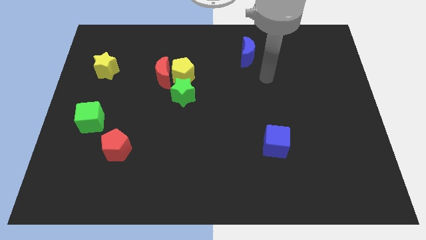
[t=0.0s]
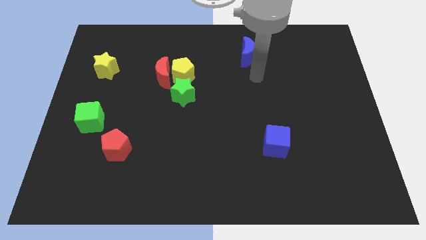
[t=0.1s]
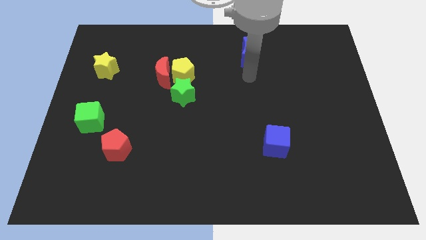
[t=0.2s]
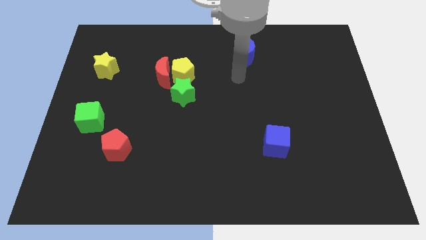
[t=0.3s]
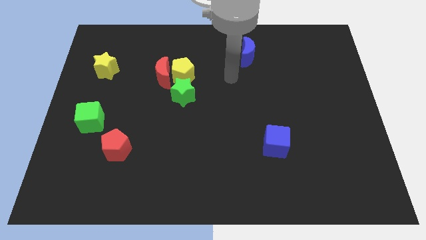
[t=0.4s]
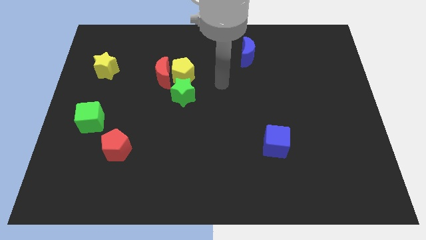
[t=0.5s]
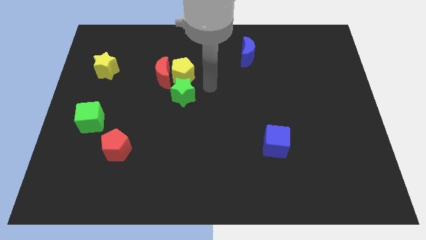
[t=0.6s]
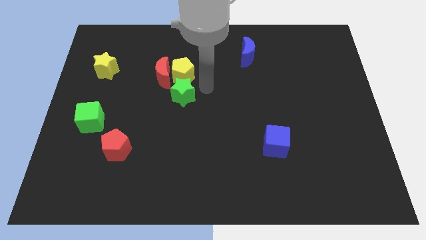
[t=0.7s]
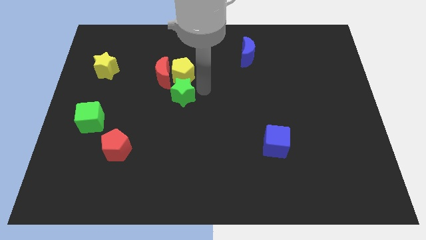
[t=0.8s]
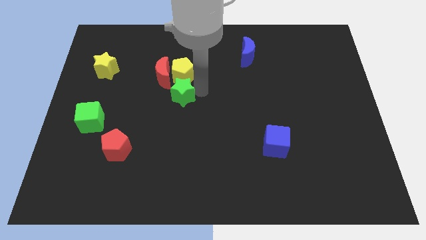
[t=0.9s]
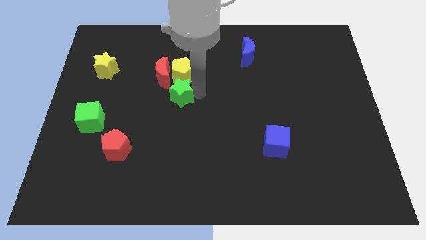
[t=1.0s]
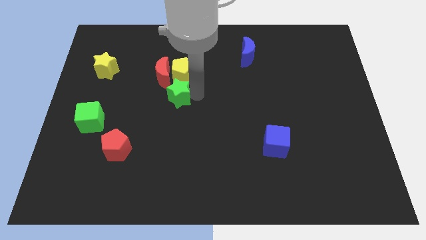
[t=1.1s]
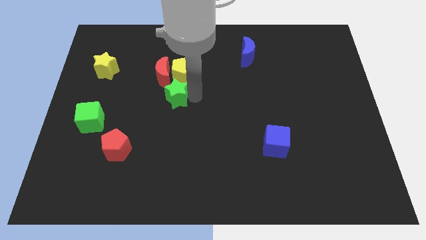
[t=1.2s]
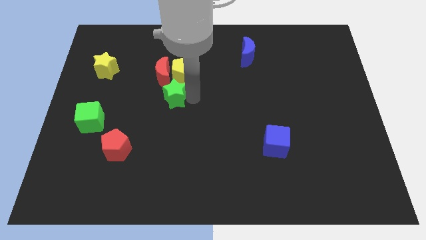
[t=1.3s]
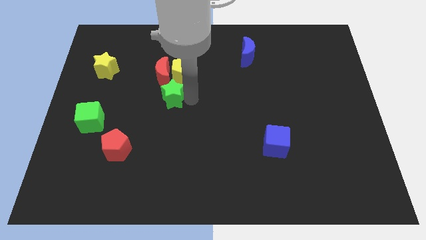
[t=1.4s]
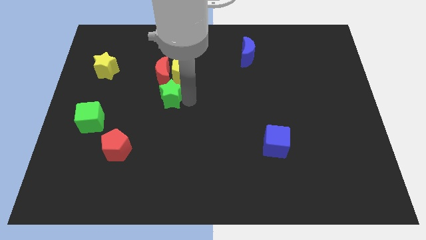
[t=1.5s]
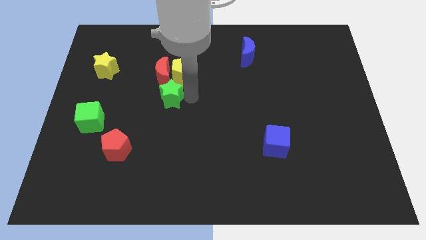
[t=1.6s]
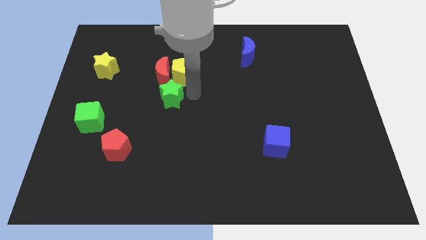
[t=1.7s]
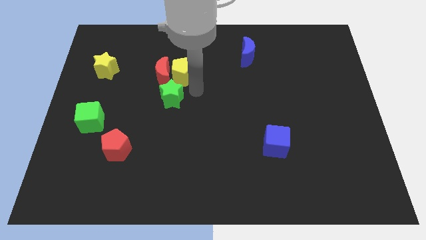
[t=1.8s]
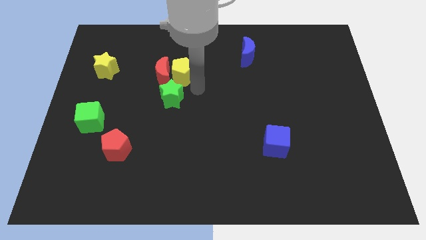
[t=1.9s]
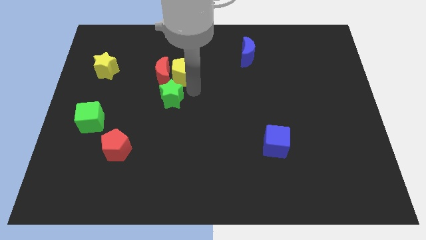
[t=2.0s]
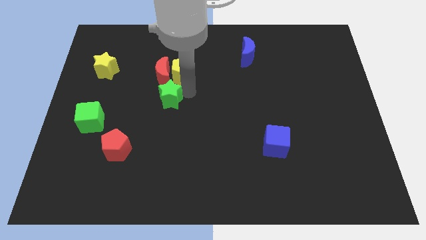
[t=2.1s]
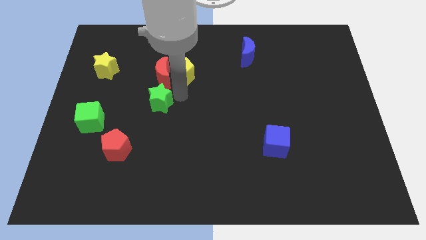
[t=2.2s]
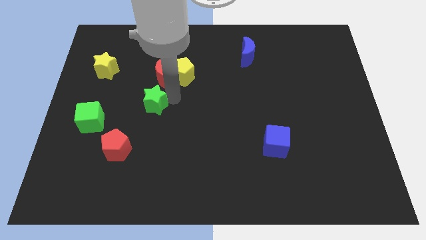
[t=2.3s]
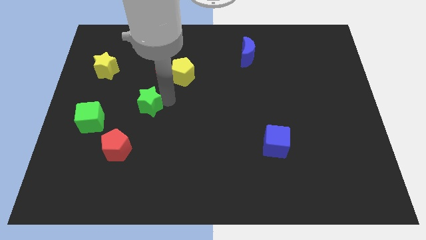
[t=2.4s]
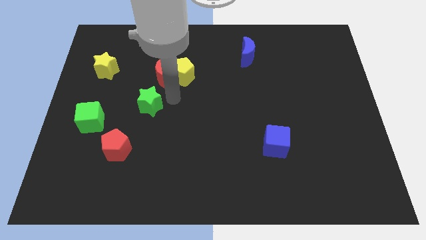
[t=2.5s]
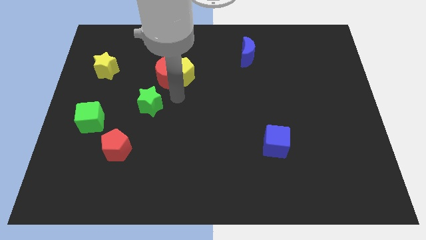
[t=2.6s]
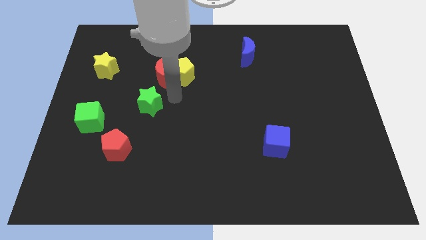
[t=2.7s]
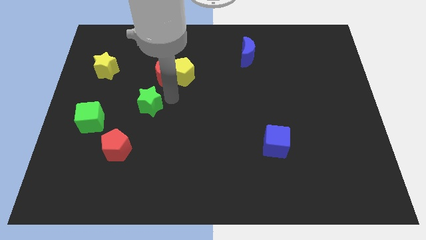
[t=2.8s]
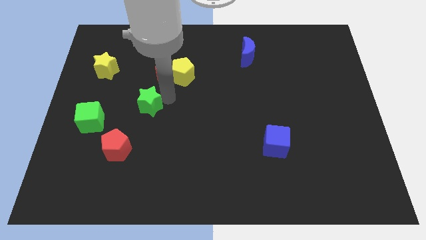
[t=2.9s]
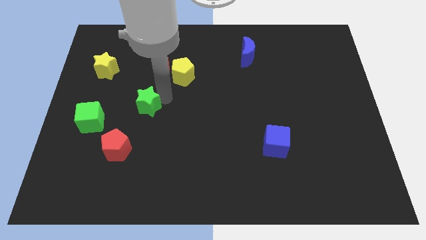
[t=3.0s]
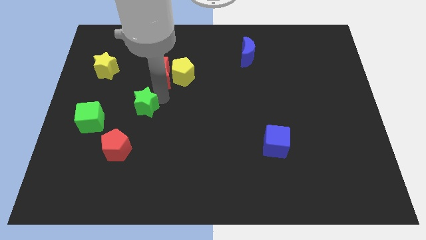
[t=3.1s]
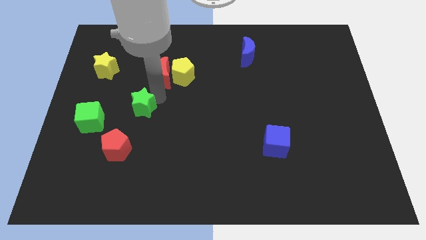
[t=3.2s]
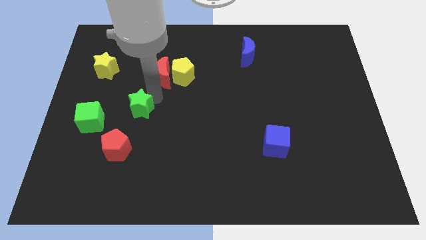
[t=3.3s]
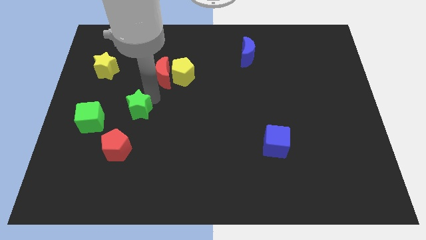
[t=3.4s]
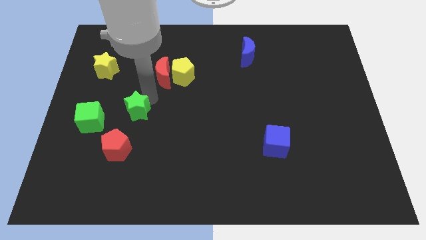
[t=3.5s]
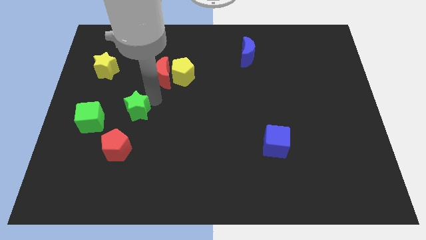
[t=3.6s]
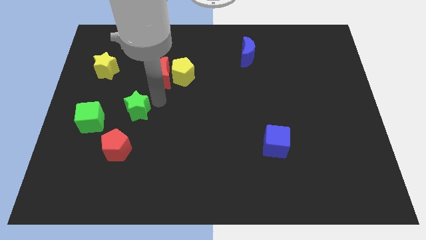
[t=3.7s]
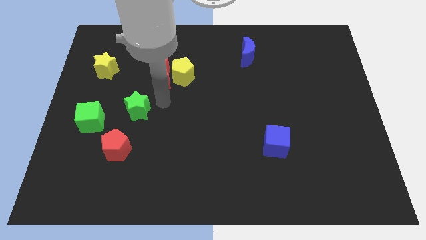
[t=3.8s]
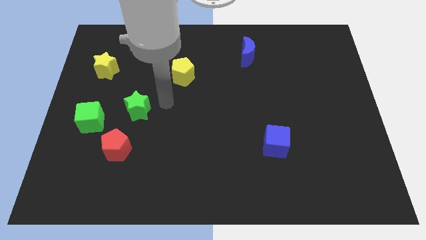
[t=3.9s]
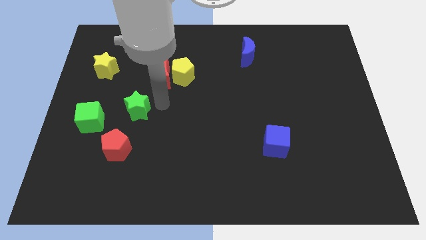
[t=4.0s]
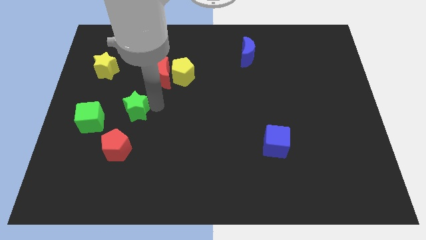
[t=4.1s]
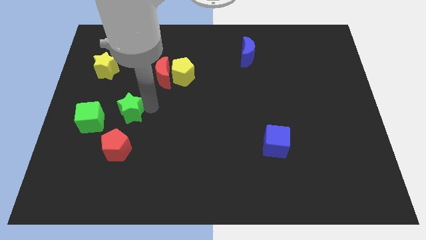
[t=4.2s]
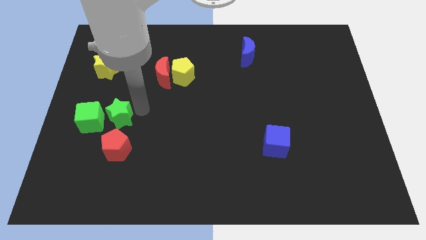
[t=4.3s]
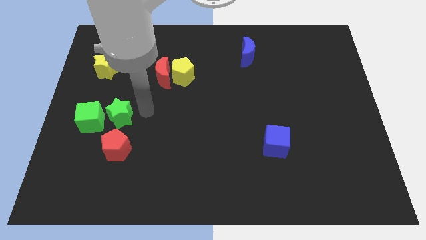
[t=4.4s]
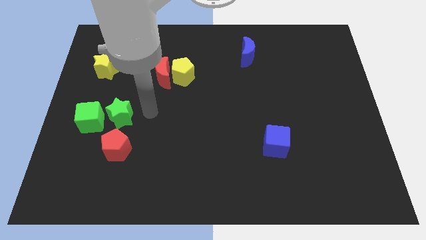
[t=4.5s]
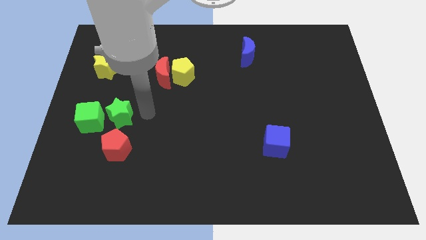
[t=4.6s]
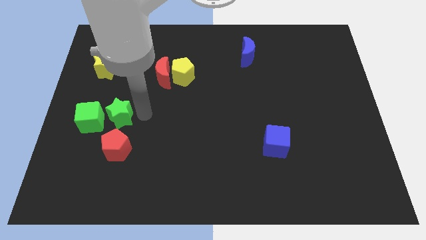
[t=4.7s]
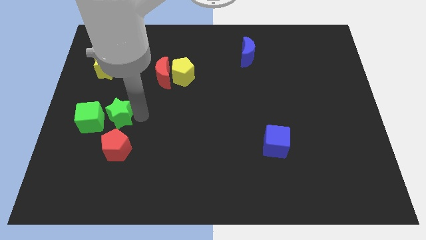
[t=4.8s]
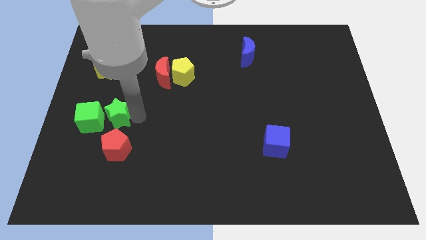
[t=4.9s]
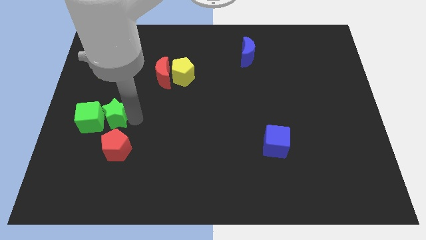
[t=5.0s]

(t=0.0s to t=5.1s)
move the green star next to the green cube
